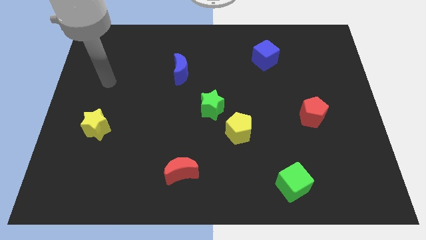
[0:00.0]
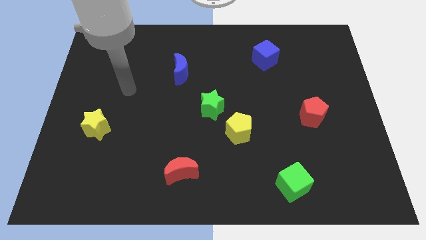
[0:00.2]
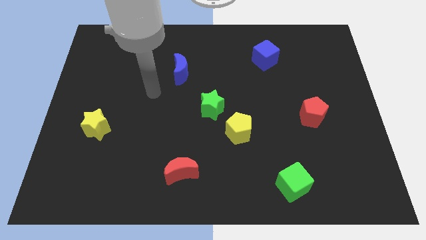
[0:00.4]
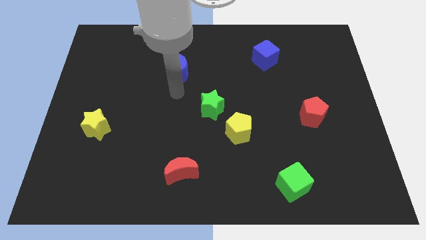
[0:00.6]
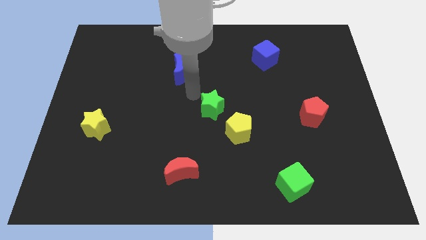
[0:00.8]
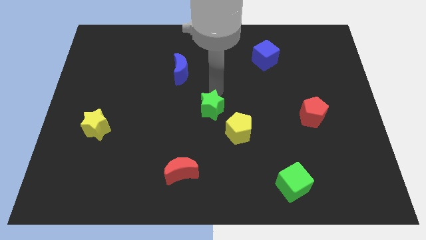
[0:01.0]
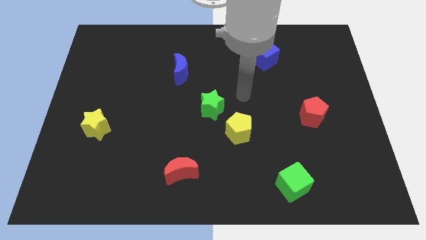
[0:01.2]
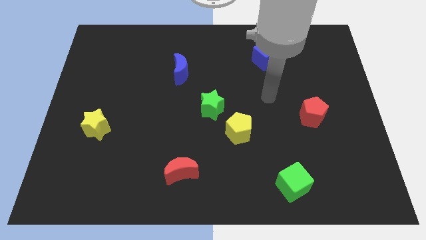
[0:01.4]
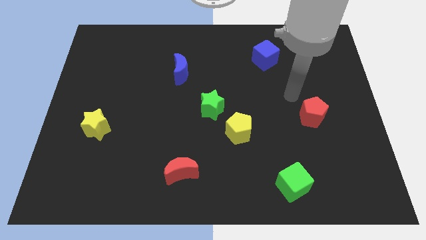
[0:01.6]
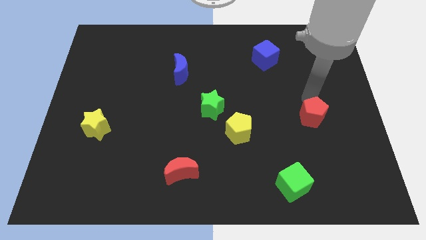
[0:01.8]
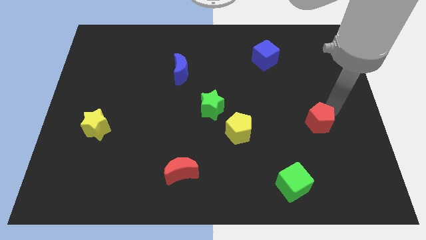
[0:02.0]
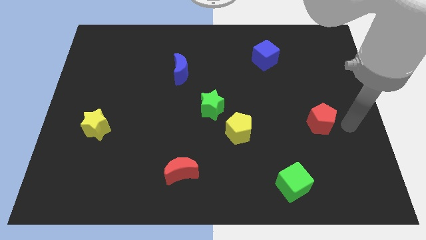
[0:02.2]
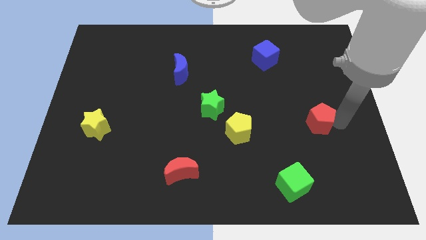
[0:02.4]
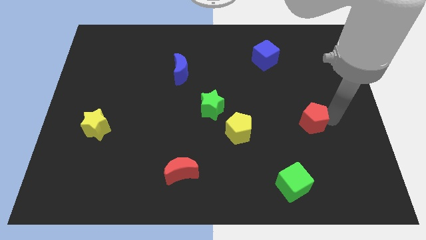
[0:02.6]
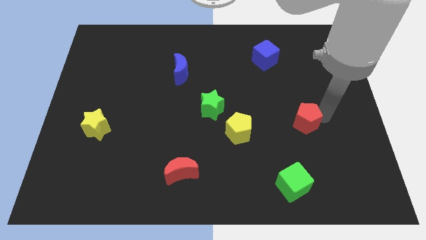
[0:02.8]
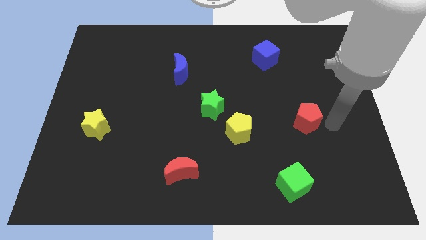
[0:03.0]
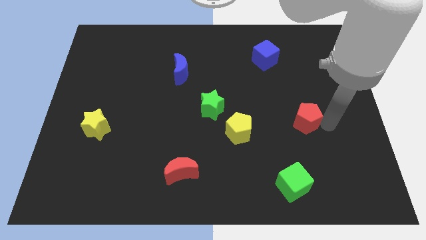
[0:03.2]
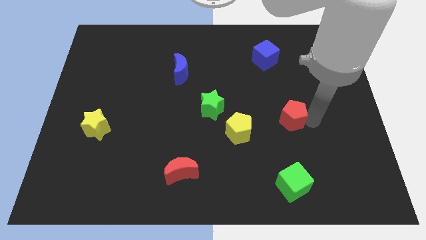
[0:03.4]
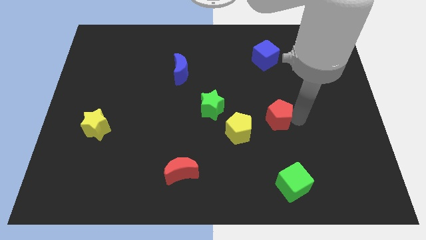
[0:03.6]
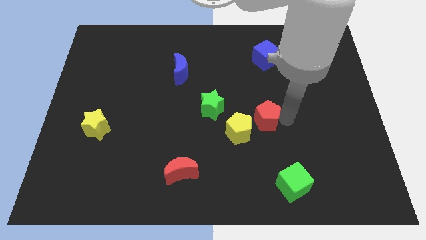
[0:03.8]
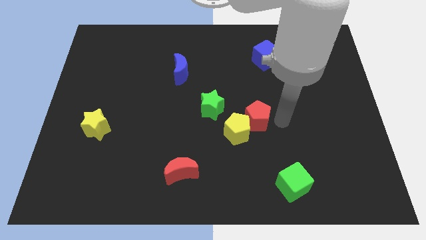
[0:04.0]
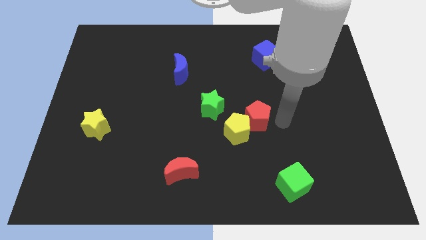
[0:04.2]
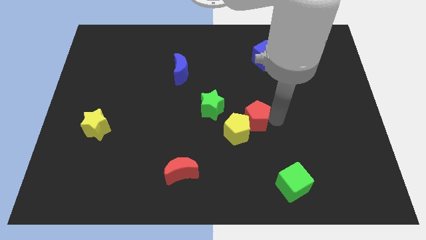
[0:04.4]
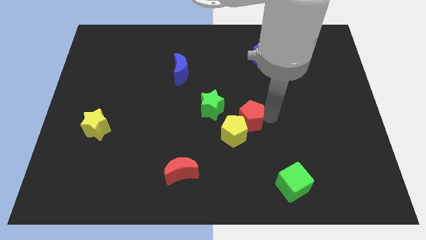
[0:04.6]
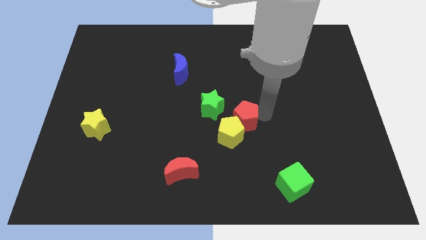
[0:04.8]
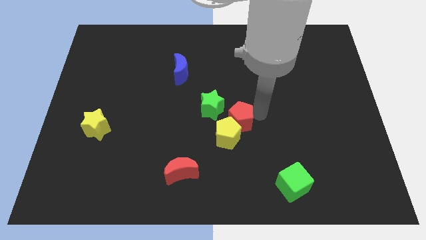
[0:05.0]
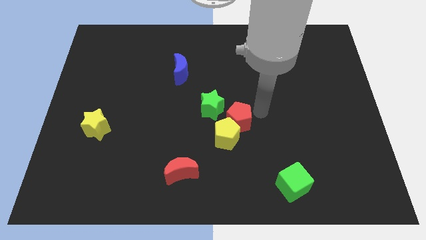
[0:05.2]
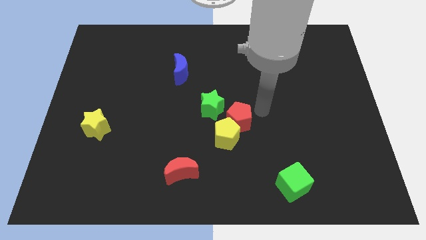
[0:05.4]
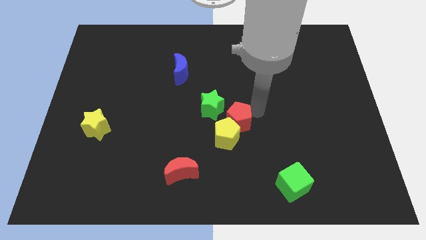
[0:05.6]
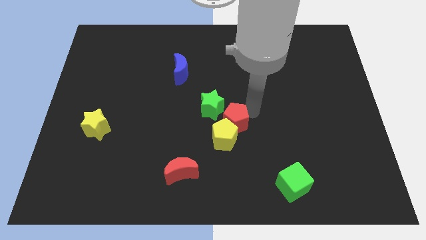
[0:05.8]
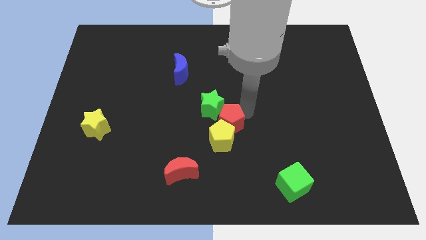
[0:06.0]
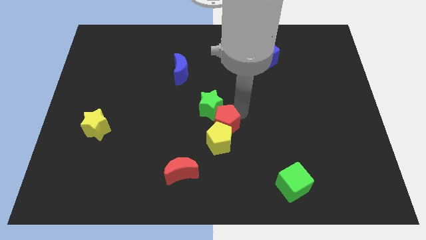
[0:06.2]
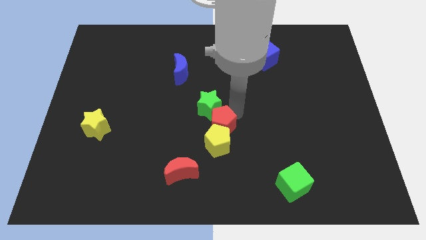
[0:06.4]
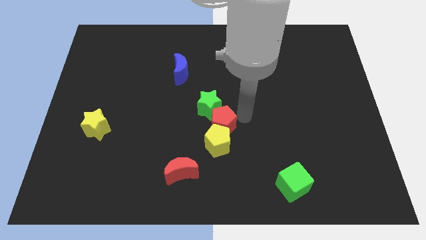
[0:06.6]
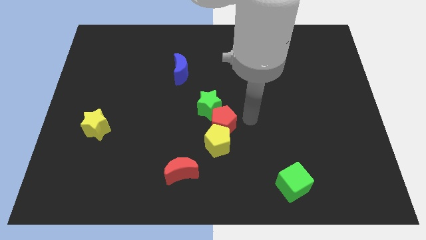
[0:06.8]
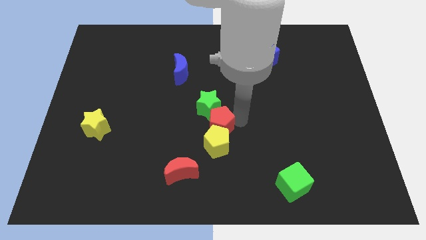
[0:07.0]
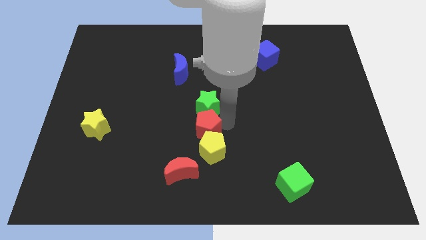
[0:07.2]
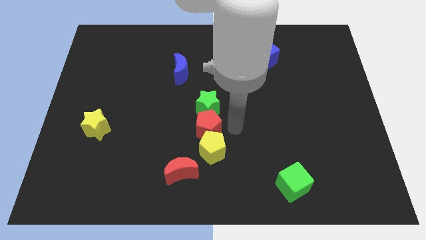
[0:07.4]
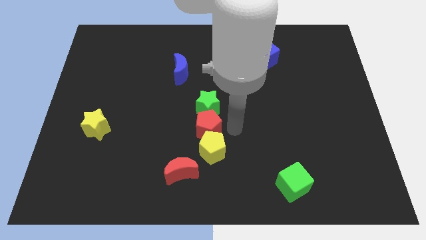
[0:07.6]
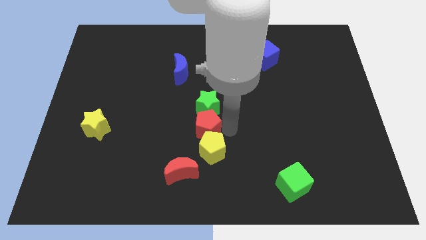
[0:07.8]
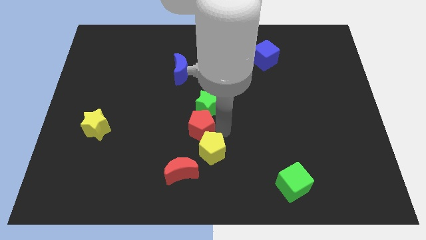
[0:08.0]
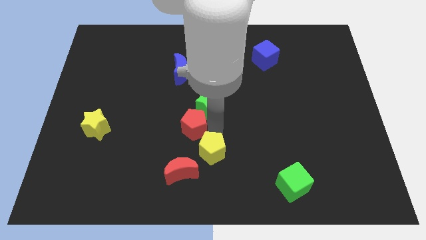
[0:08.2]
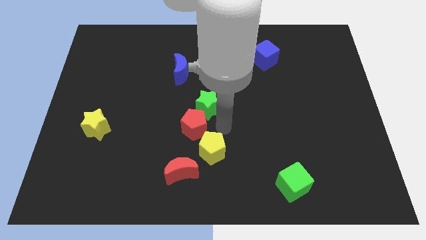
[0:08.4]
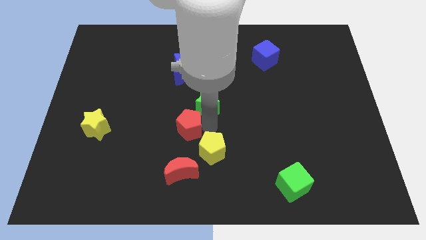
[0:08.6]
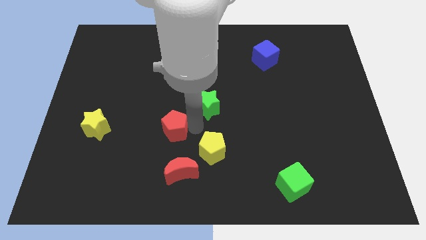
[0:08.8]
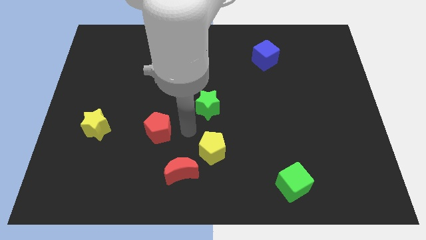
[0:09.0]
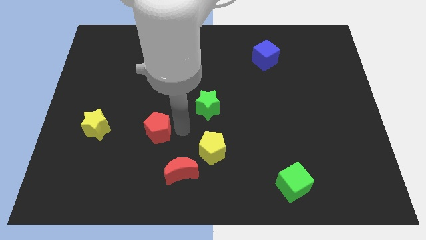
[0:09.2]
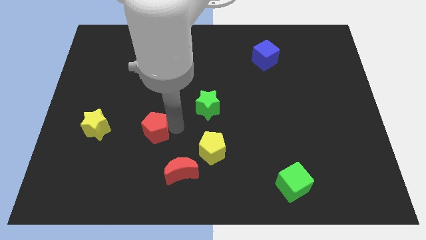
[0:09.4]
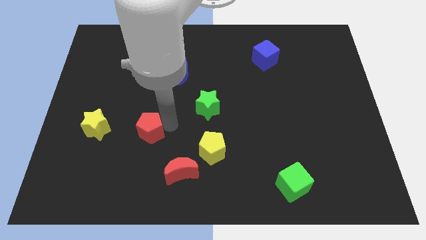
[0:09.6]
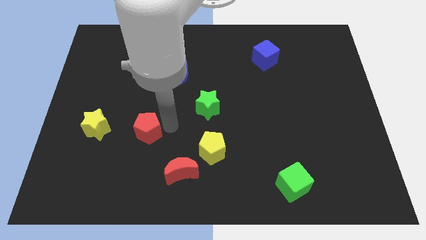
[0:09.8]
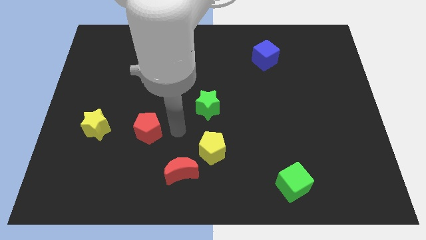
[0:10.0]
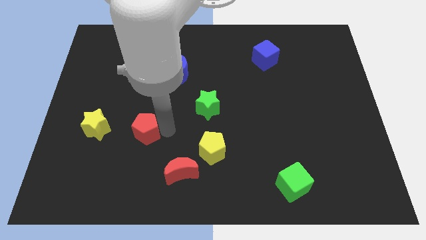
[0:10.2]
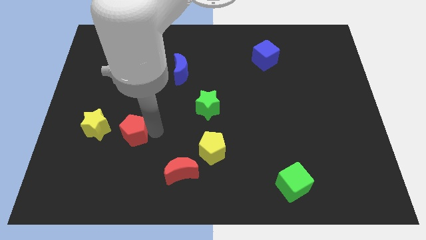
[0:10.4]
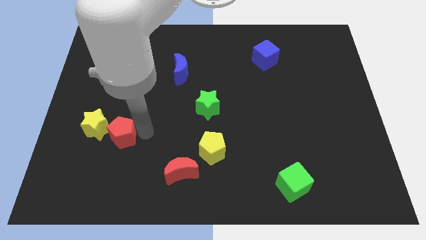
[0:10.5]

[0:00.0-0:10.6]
move the red pentagon towards the yellow star

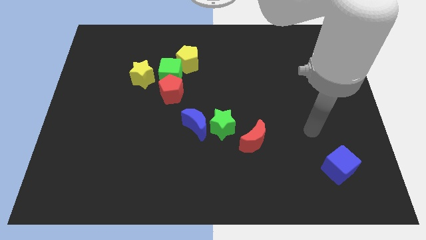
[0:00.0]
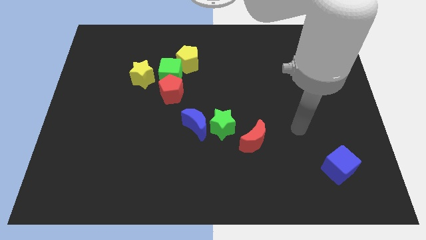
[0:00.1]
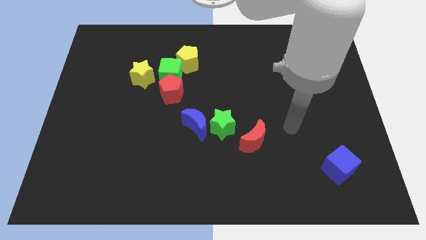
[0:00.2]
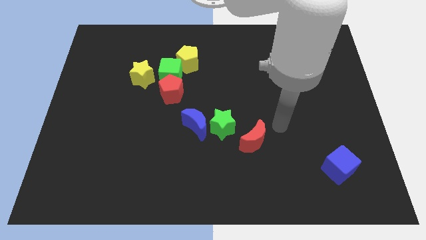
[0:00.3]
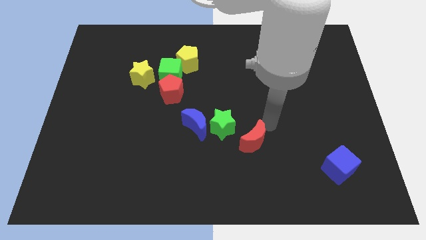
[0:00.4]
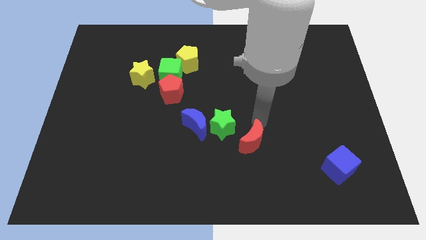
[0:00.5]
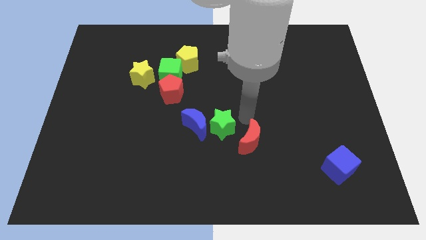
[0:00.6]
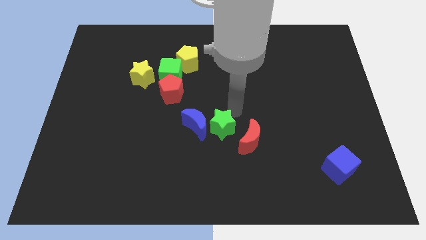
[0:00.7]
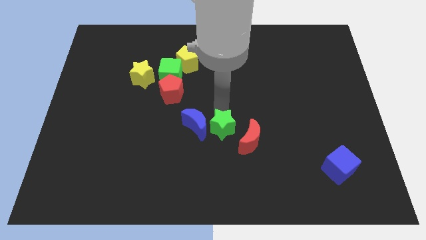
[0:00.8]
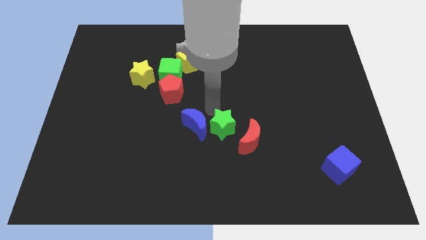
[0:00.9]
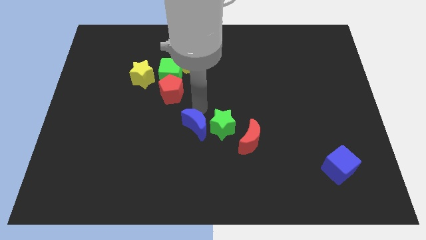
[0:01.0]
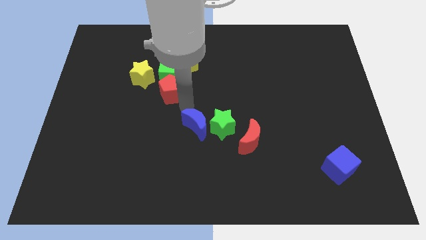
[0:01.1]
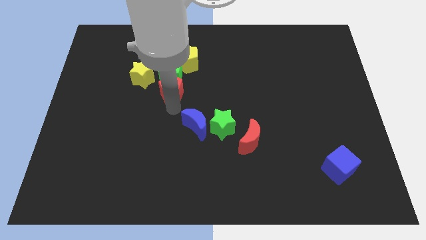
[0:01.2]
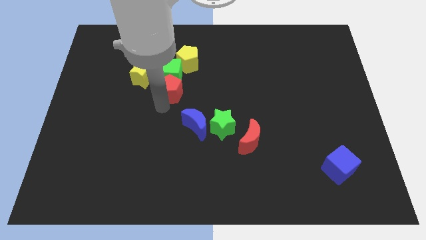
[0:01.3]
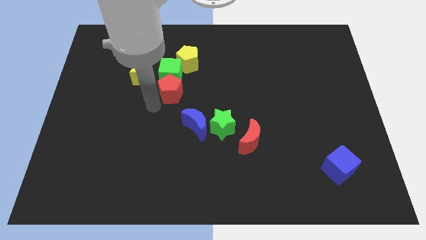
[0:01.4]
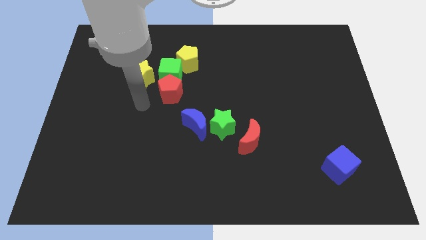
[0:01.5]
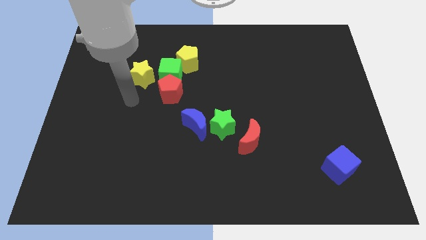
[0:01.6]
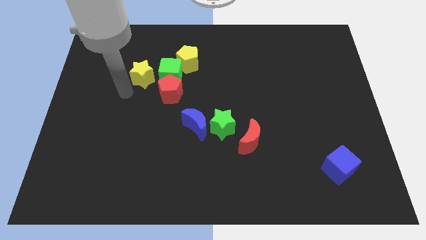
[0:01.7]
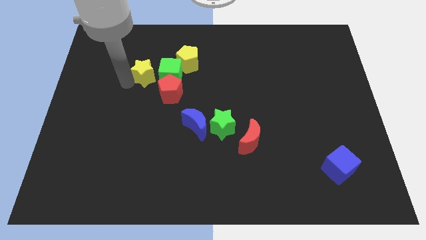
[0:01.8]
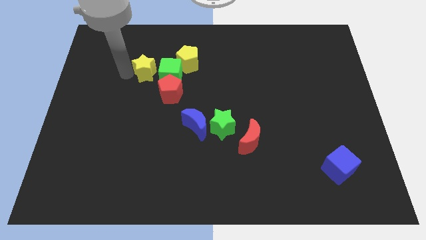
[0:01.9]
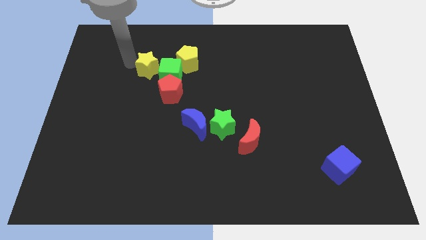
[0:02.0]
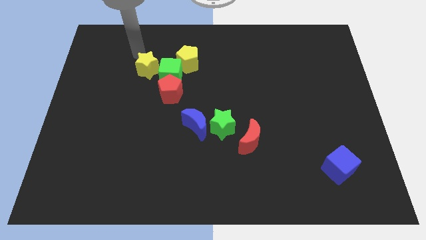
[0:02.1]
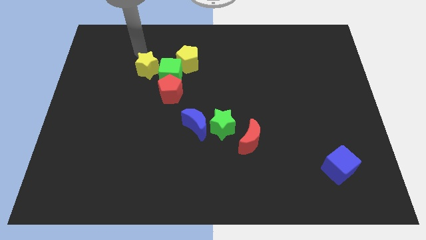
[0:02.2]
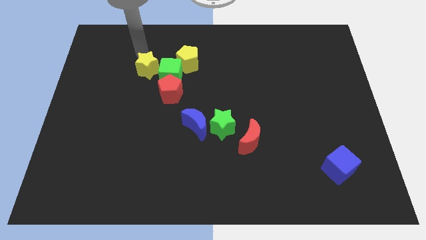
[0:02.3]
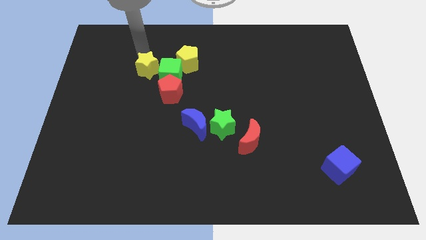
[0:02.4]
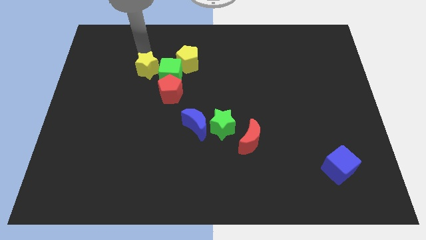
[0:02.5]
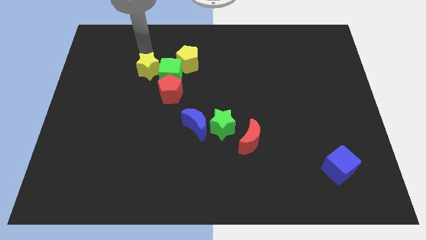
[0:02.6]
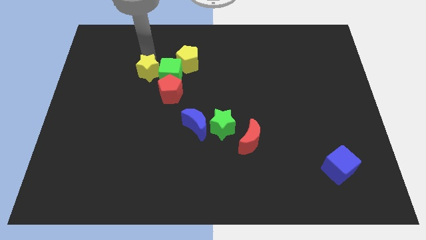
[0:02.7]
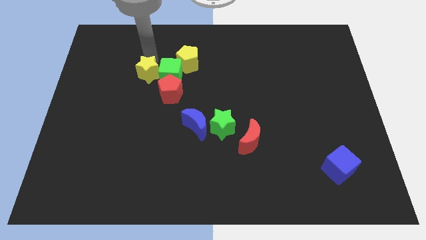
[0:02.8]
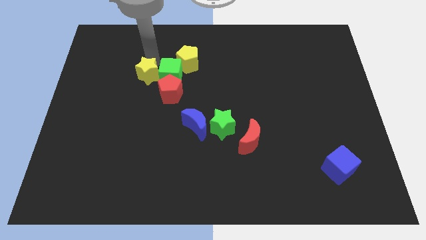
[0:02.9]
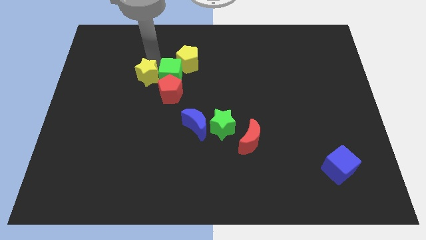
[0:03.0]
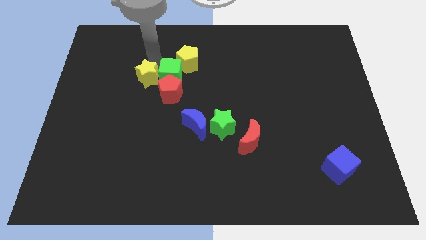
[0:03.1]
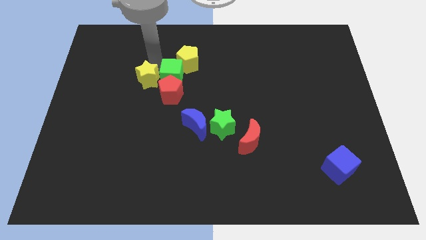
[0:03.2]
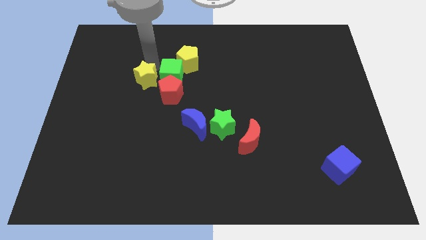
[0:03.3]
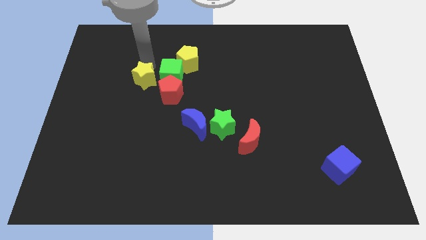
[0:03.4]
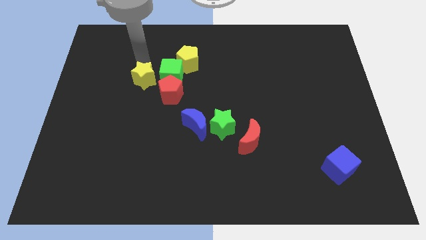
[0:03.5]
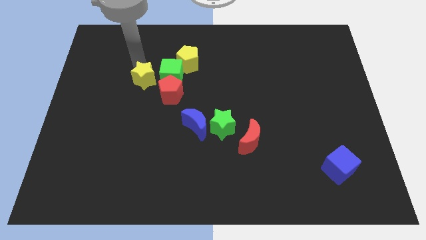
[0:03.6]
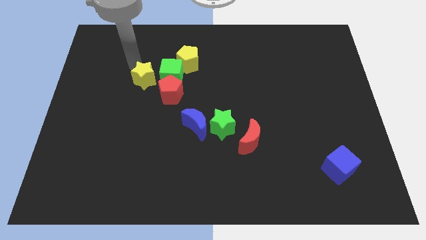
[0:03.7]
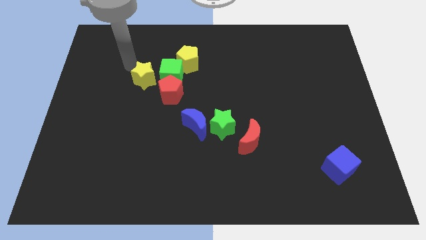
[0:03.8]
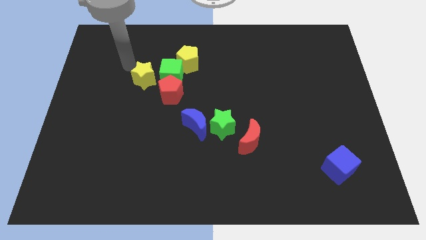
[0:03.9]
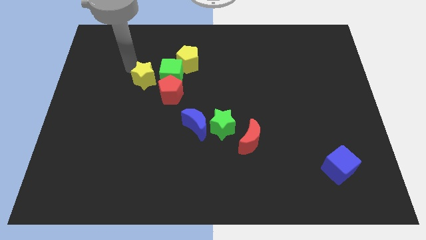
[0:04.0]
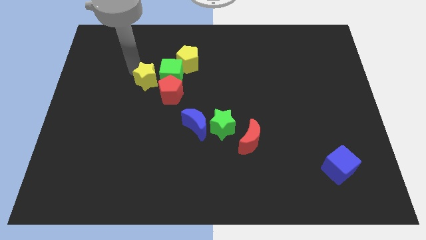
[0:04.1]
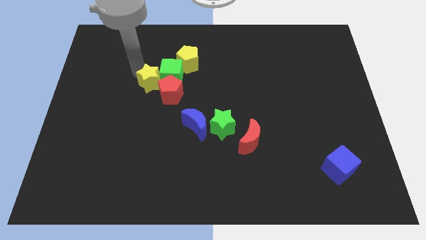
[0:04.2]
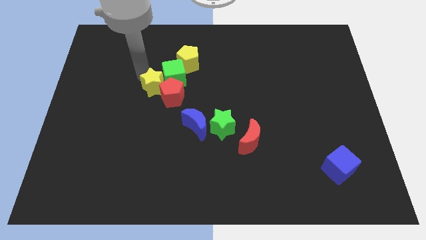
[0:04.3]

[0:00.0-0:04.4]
slide the yellow star next to the red pentagon
